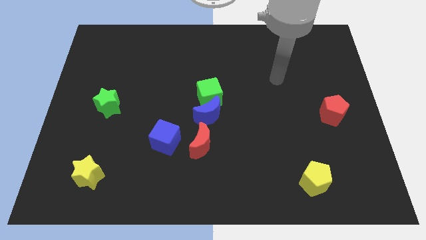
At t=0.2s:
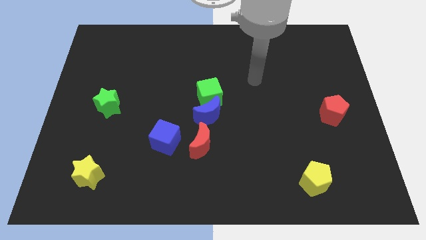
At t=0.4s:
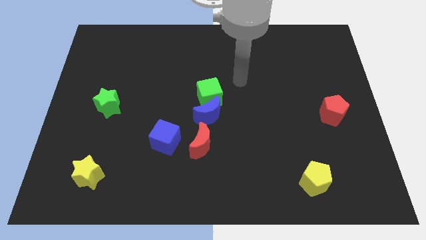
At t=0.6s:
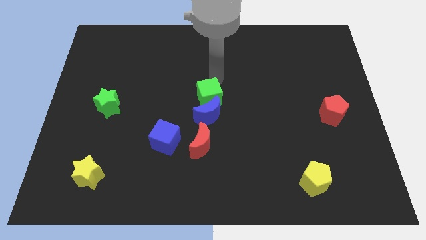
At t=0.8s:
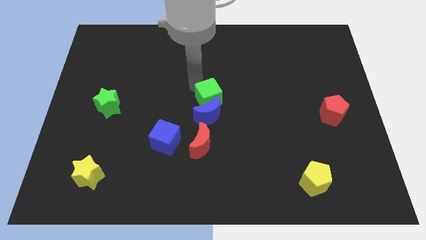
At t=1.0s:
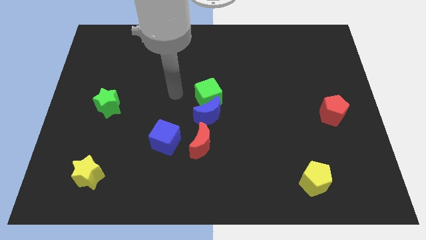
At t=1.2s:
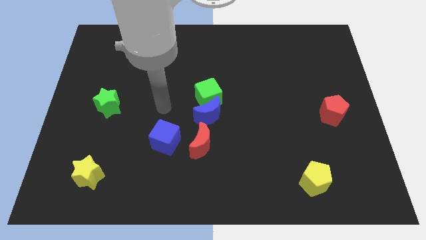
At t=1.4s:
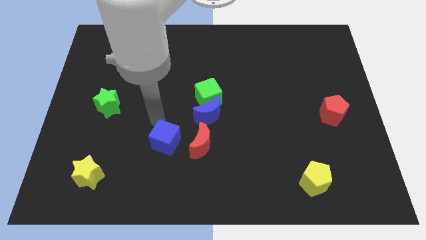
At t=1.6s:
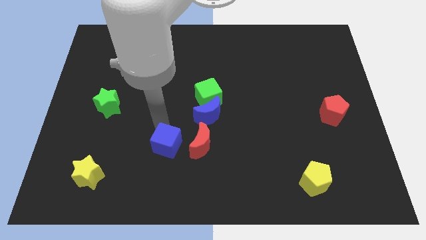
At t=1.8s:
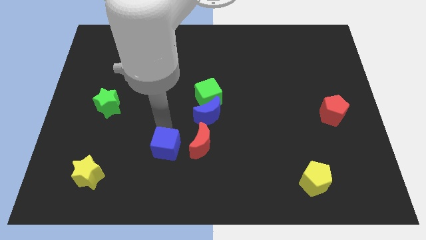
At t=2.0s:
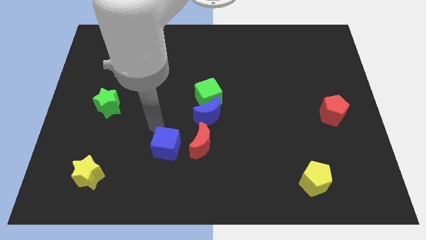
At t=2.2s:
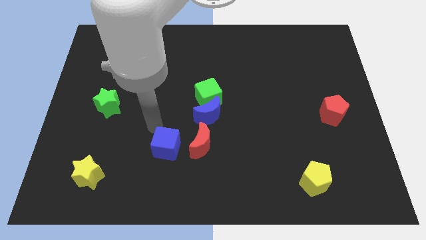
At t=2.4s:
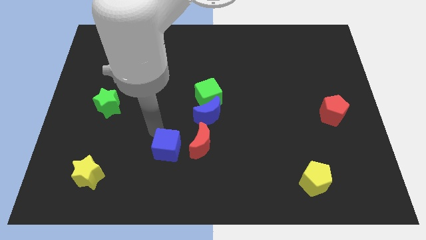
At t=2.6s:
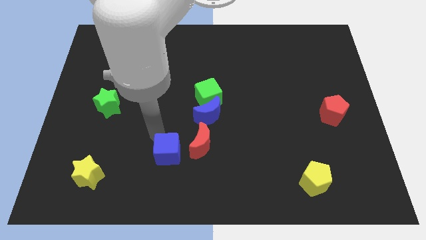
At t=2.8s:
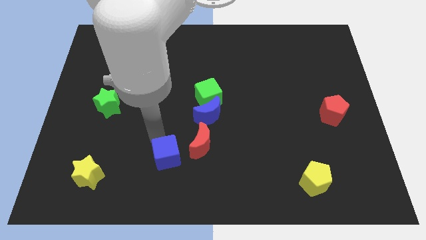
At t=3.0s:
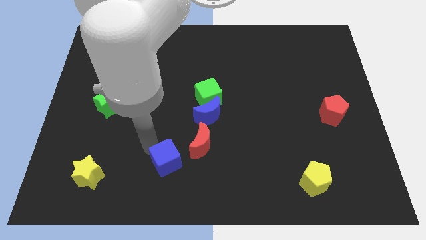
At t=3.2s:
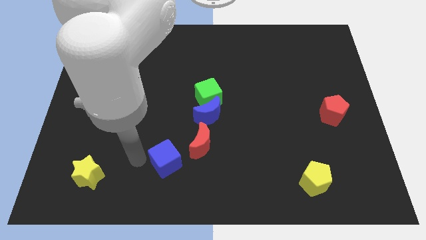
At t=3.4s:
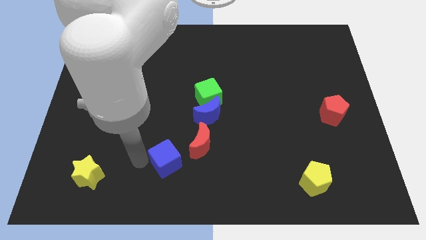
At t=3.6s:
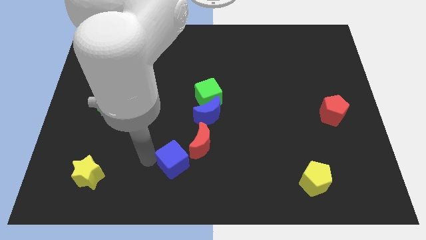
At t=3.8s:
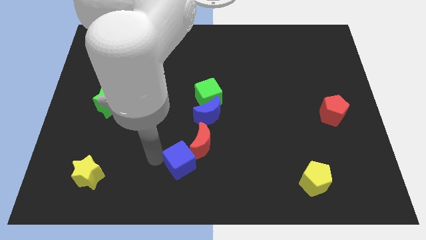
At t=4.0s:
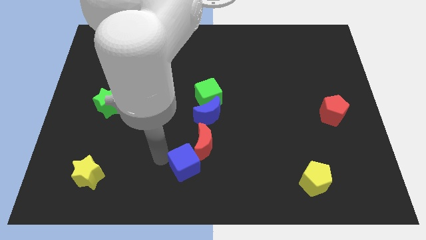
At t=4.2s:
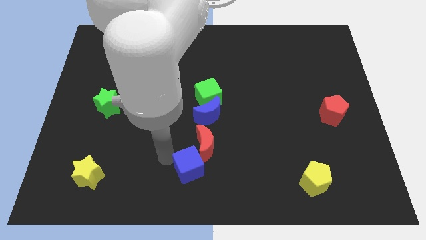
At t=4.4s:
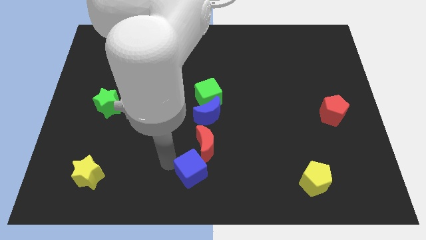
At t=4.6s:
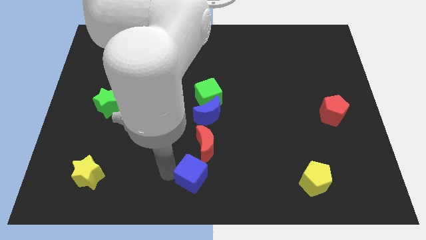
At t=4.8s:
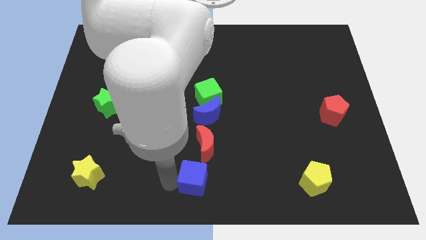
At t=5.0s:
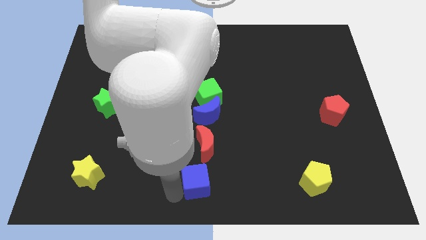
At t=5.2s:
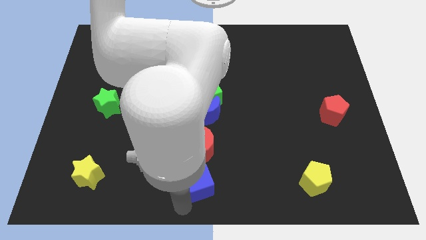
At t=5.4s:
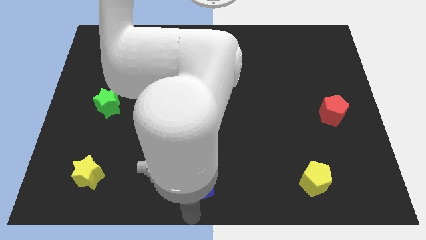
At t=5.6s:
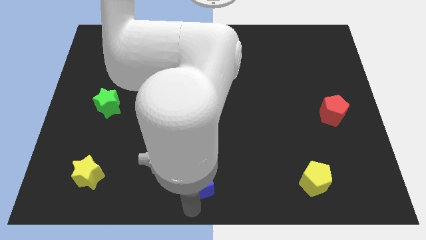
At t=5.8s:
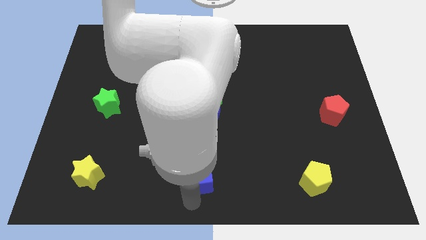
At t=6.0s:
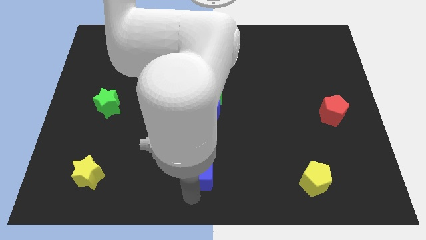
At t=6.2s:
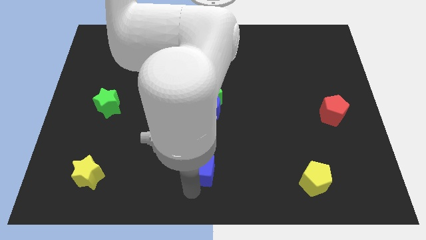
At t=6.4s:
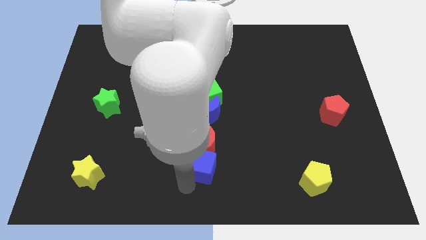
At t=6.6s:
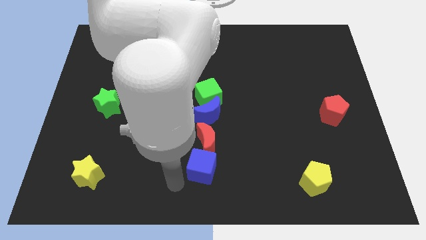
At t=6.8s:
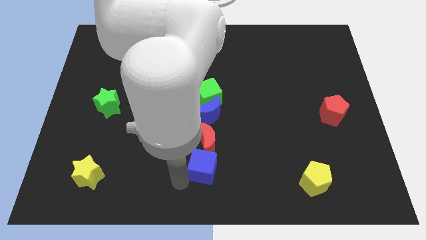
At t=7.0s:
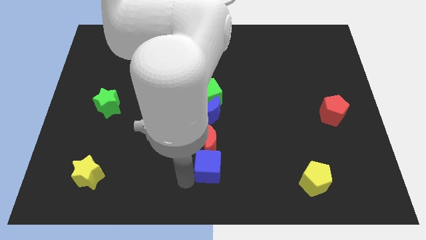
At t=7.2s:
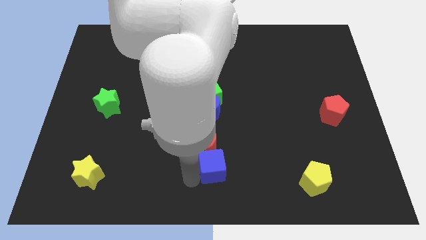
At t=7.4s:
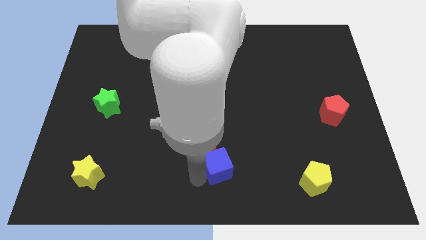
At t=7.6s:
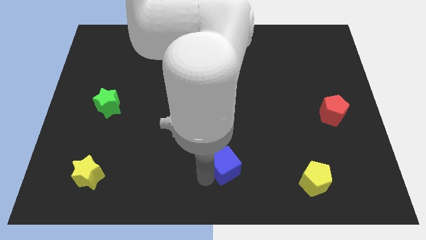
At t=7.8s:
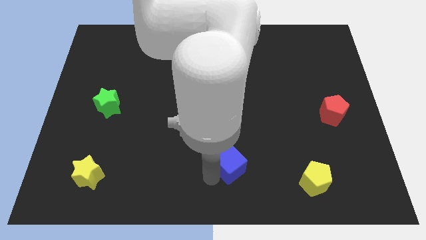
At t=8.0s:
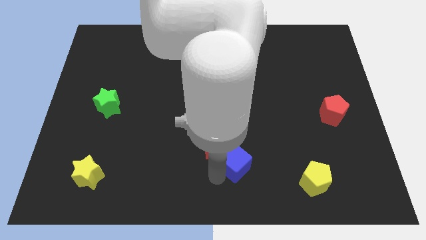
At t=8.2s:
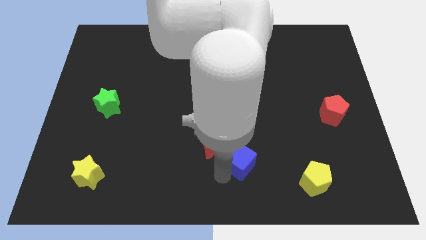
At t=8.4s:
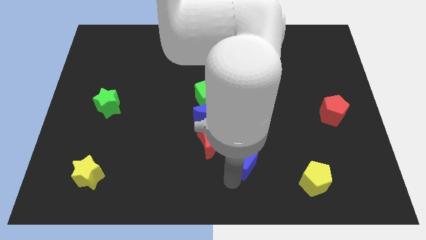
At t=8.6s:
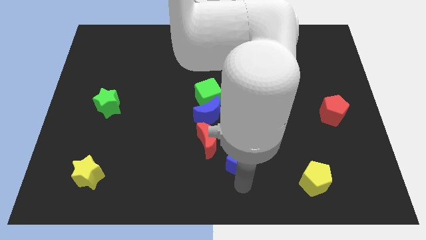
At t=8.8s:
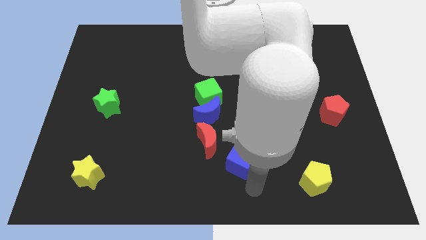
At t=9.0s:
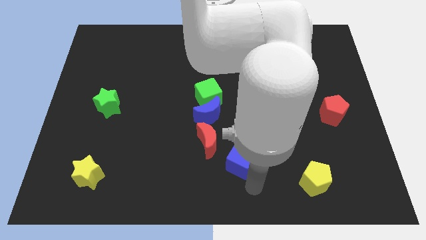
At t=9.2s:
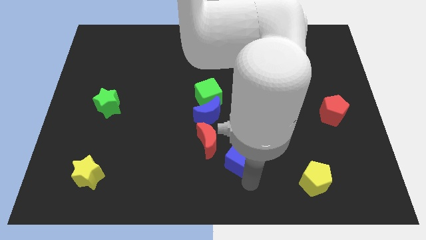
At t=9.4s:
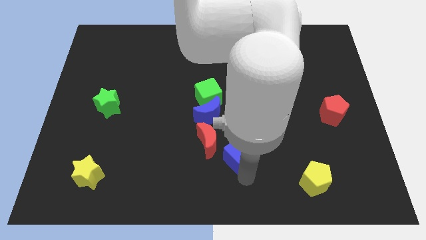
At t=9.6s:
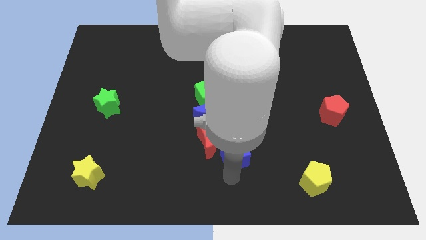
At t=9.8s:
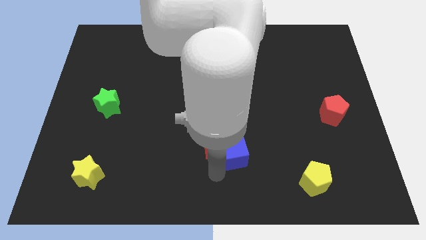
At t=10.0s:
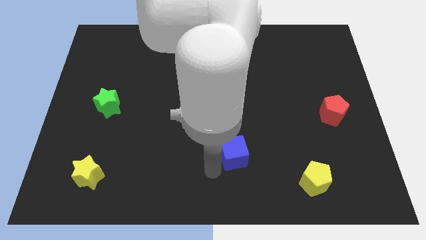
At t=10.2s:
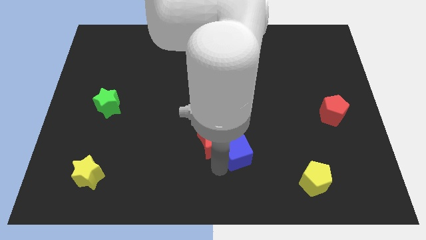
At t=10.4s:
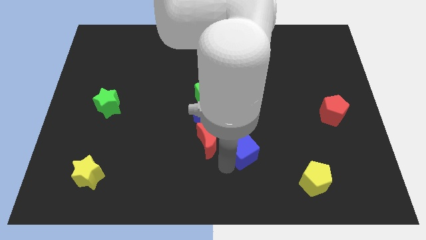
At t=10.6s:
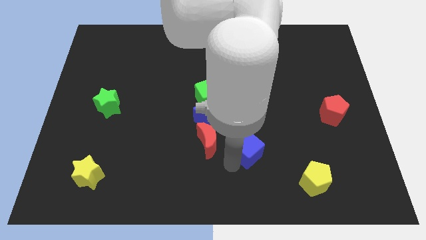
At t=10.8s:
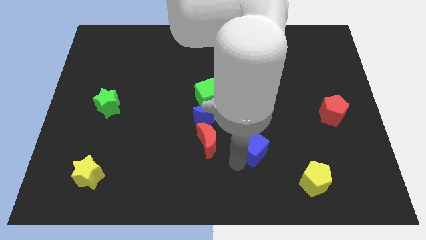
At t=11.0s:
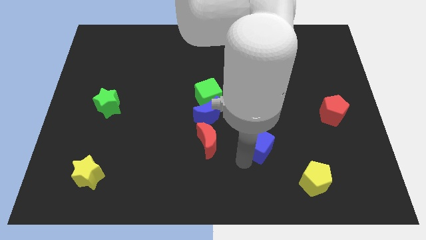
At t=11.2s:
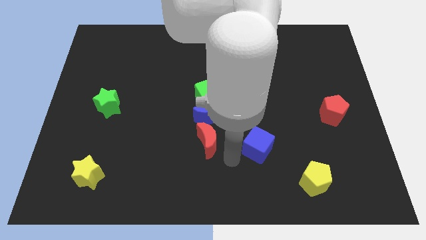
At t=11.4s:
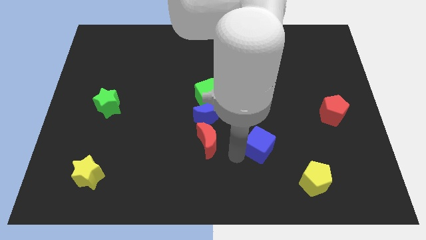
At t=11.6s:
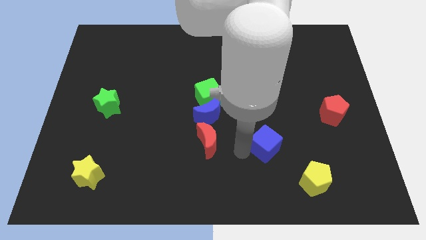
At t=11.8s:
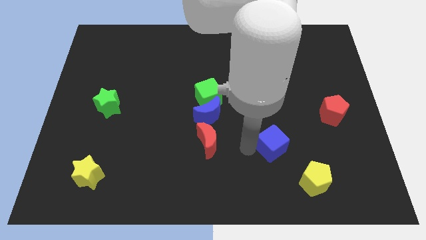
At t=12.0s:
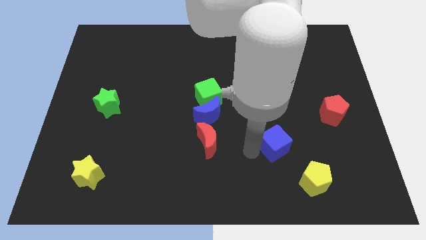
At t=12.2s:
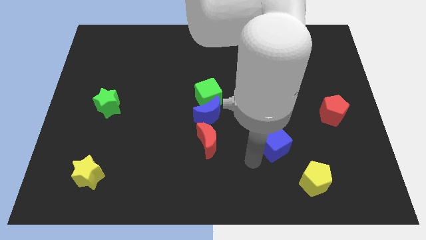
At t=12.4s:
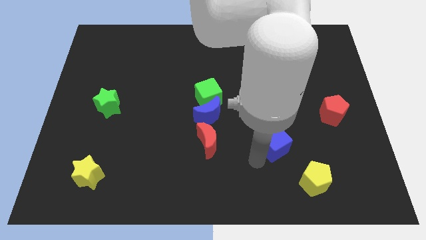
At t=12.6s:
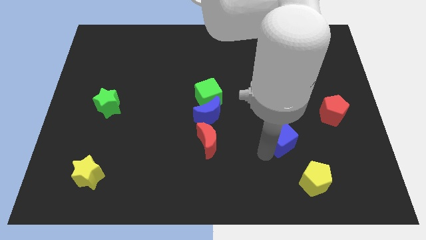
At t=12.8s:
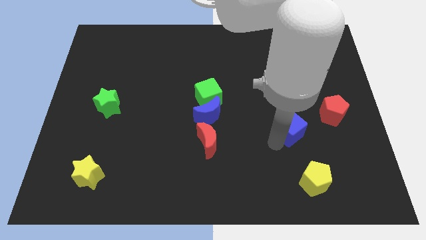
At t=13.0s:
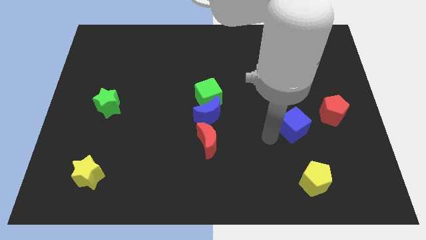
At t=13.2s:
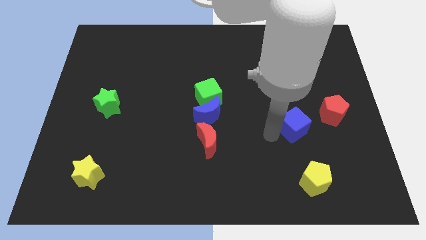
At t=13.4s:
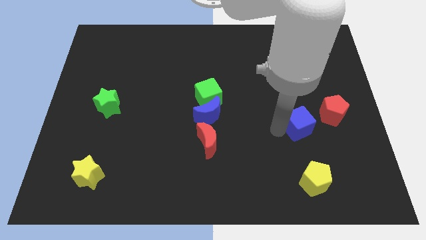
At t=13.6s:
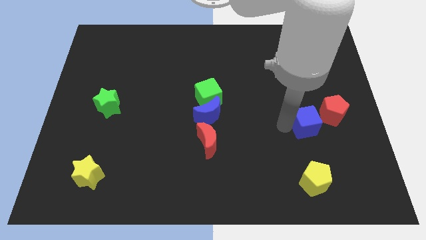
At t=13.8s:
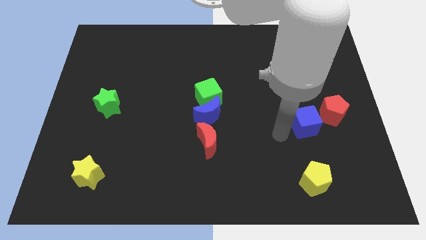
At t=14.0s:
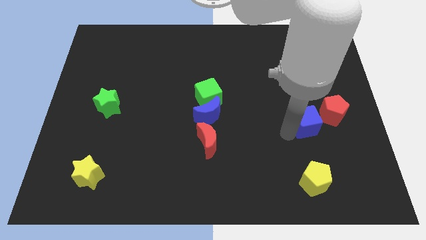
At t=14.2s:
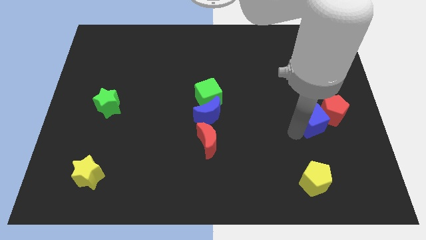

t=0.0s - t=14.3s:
push the blue cube next to the red pentagon

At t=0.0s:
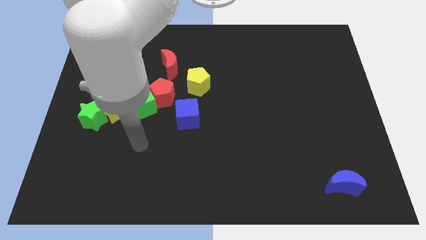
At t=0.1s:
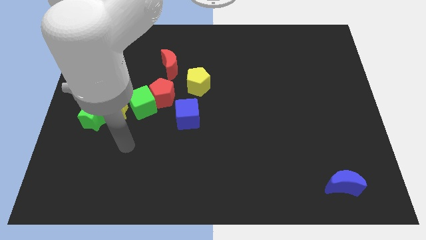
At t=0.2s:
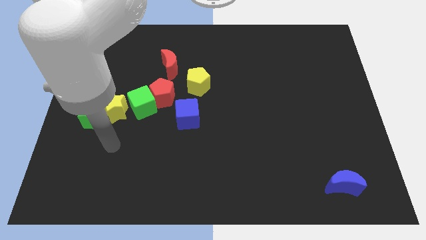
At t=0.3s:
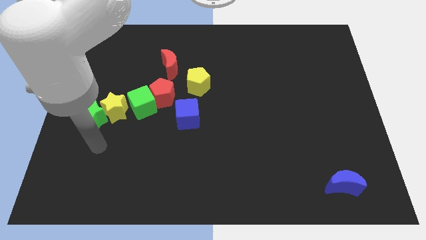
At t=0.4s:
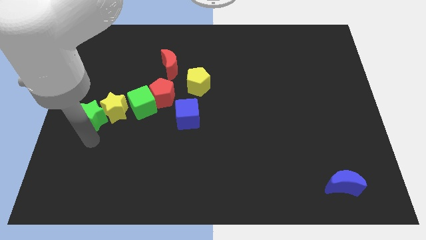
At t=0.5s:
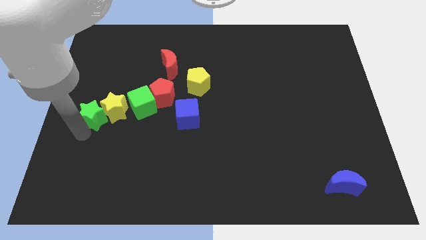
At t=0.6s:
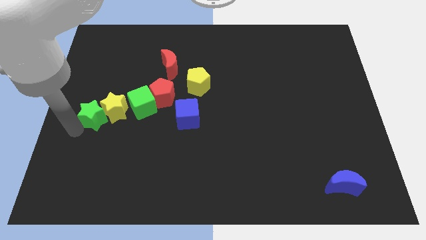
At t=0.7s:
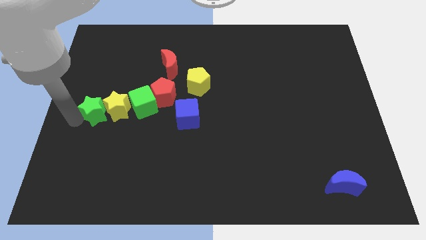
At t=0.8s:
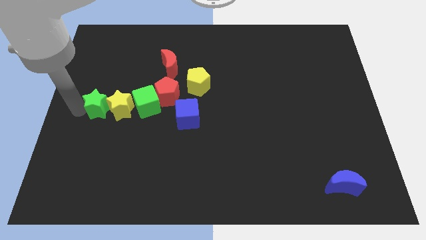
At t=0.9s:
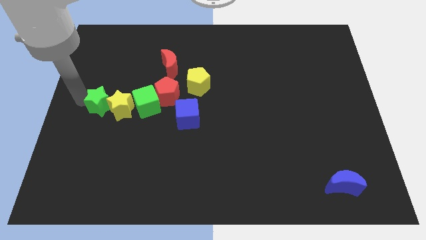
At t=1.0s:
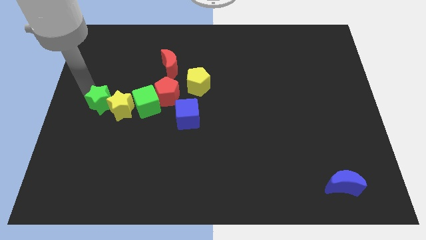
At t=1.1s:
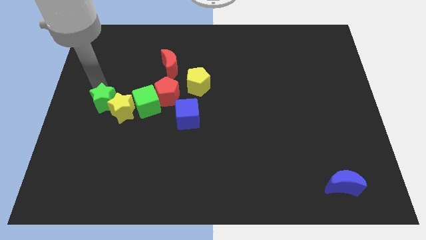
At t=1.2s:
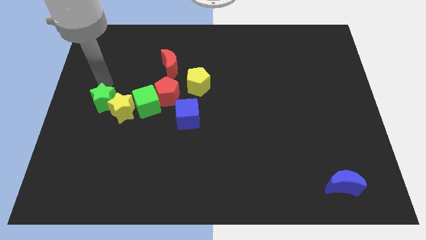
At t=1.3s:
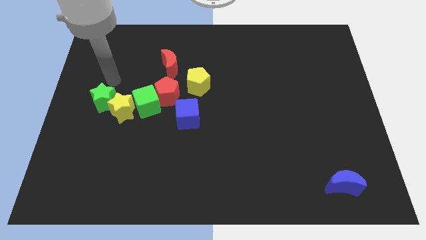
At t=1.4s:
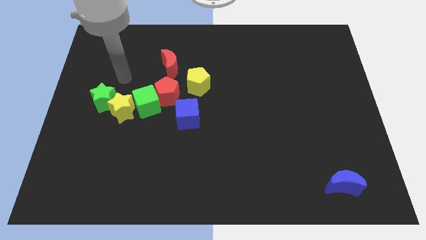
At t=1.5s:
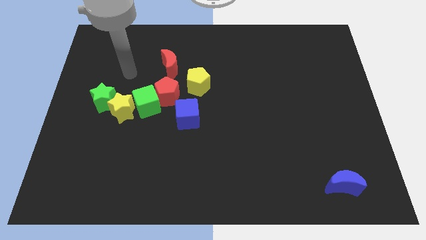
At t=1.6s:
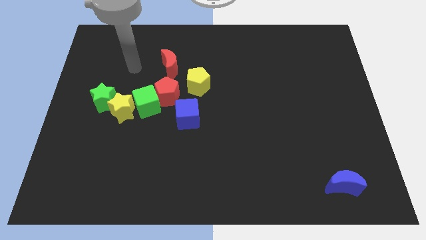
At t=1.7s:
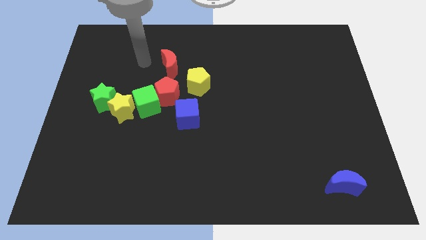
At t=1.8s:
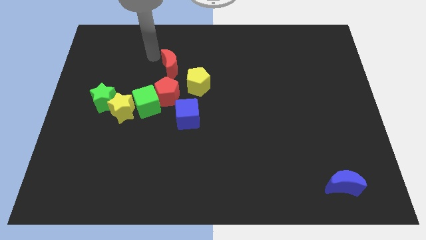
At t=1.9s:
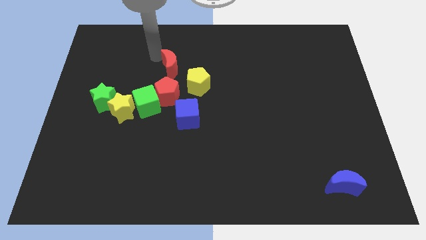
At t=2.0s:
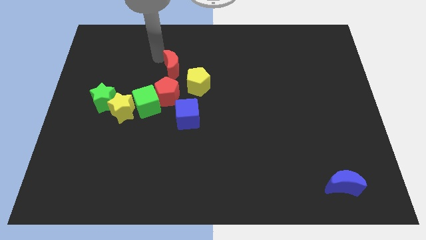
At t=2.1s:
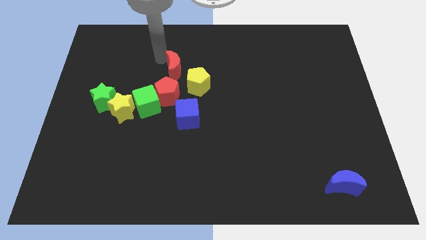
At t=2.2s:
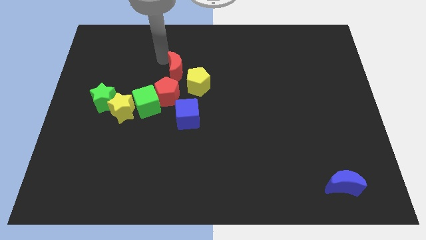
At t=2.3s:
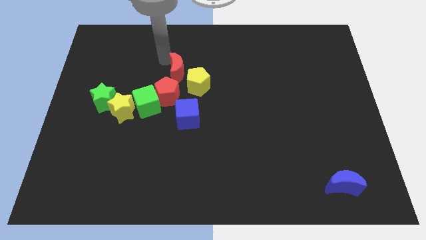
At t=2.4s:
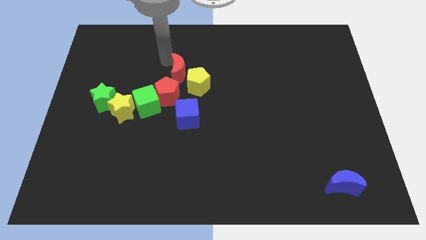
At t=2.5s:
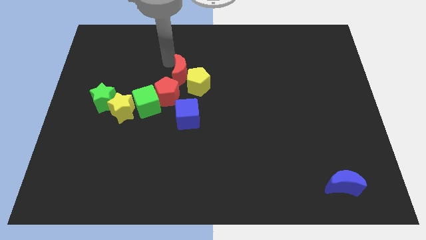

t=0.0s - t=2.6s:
push the red moon next to the yellow pentagon
